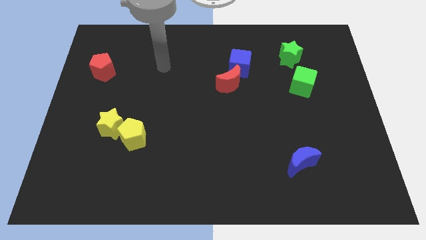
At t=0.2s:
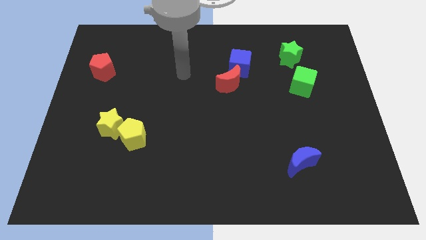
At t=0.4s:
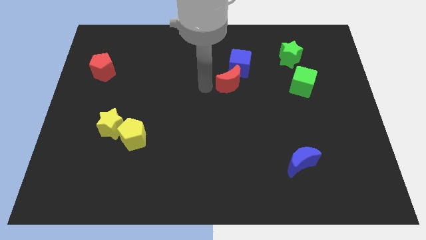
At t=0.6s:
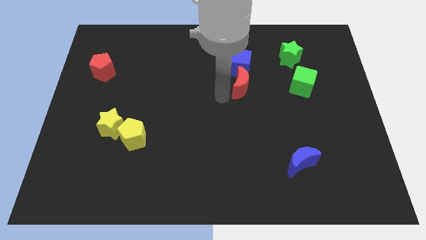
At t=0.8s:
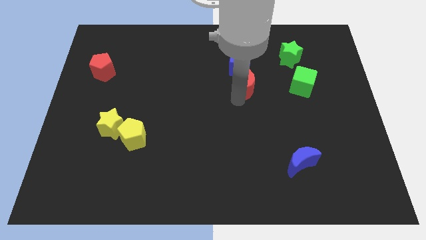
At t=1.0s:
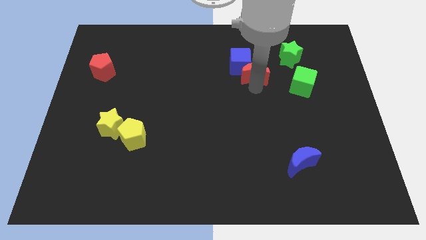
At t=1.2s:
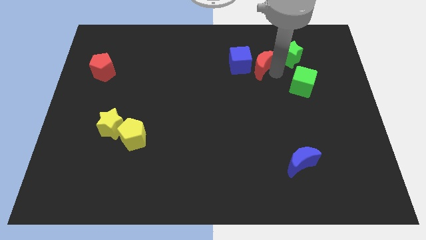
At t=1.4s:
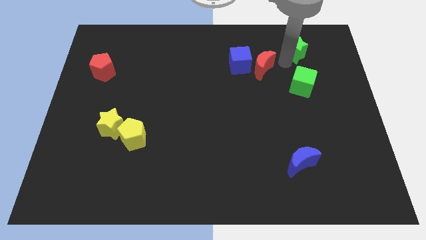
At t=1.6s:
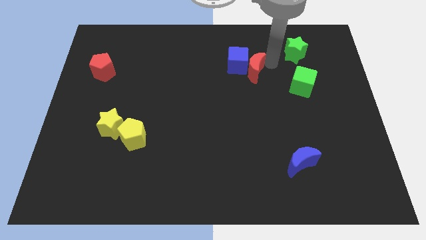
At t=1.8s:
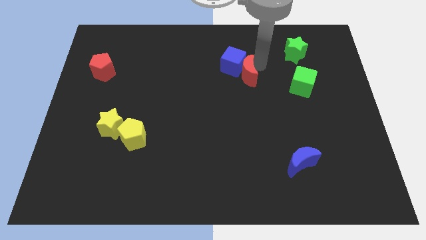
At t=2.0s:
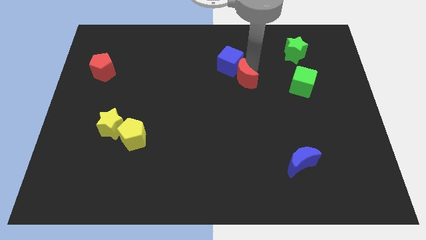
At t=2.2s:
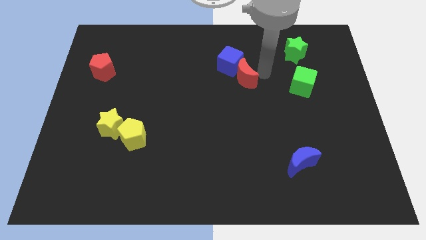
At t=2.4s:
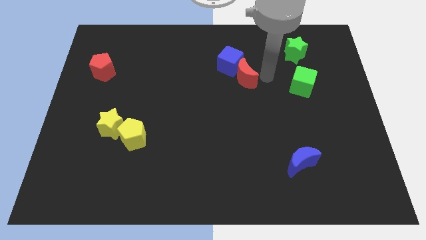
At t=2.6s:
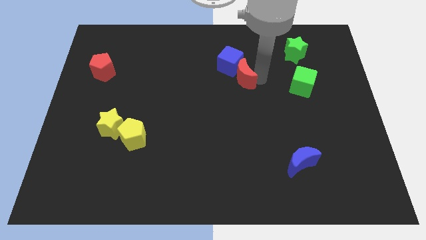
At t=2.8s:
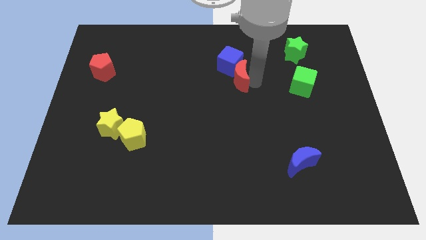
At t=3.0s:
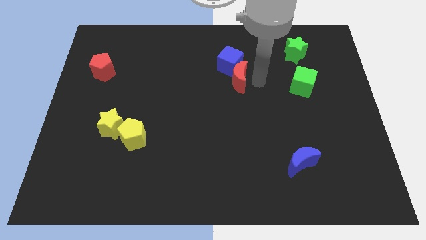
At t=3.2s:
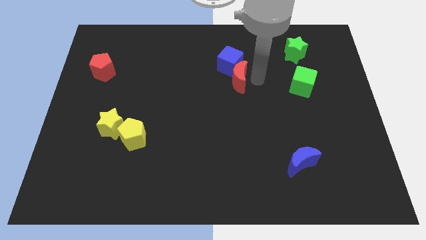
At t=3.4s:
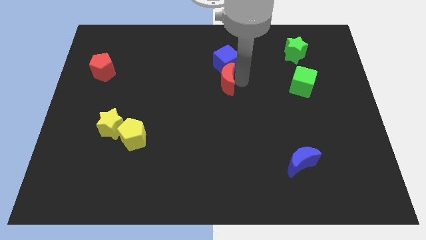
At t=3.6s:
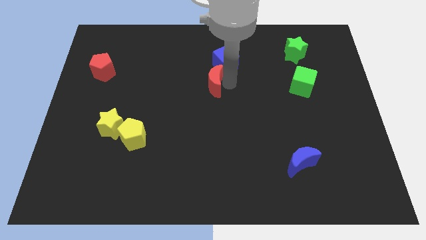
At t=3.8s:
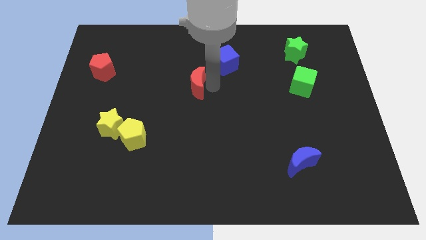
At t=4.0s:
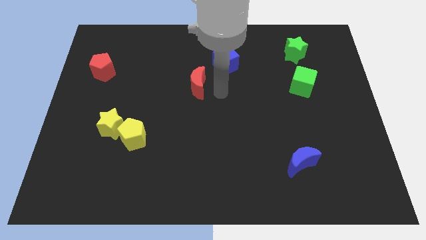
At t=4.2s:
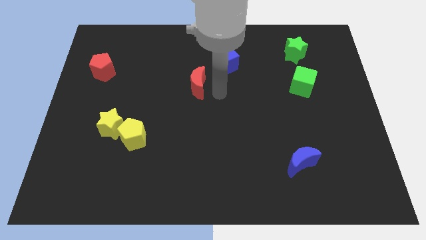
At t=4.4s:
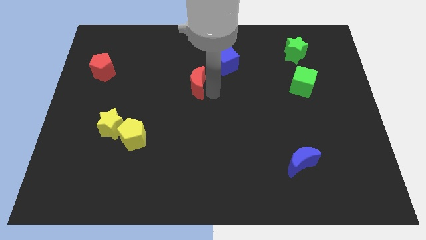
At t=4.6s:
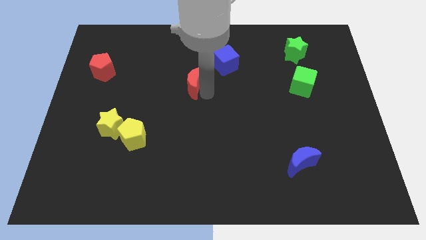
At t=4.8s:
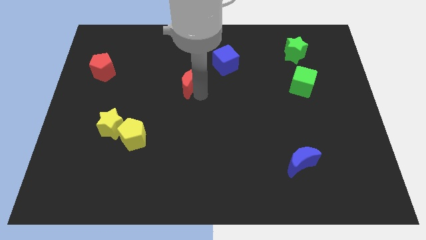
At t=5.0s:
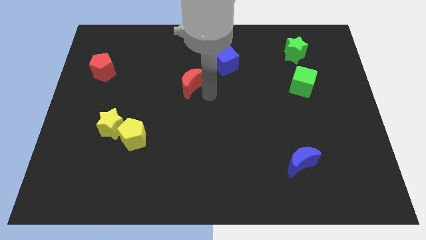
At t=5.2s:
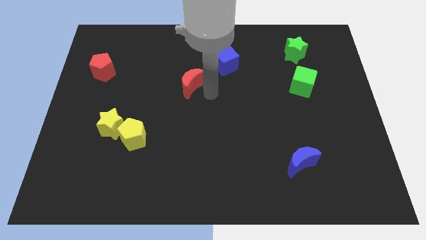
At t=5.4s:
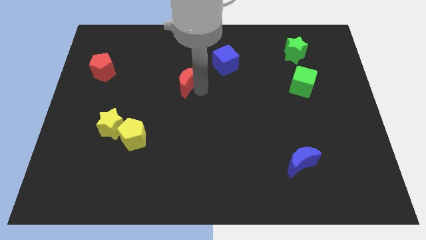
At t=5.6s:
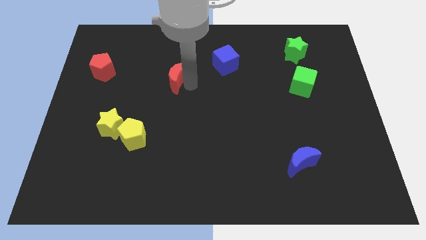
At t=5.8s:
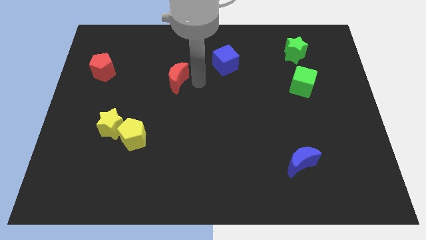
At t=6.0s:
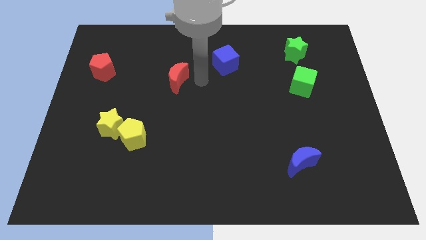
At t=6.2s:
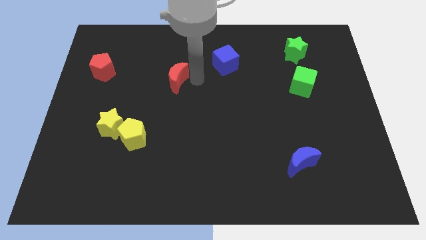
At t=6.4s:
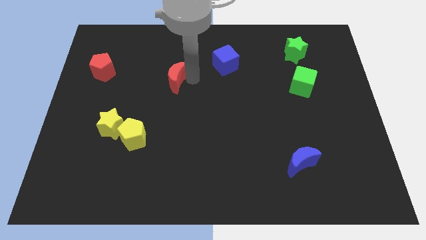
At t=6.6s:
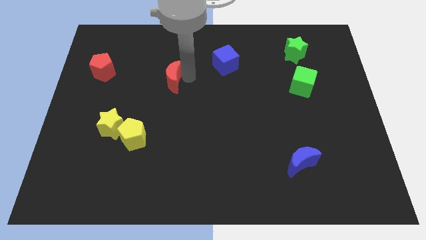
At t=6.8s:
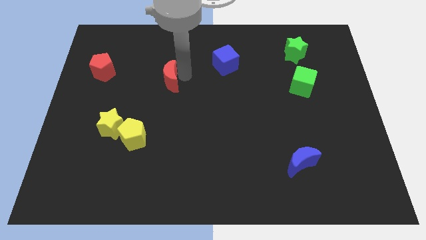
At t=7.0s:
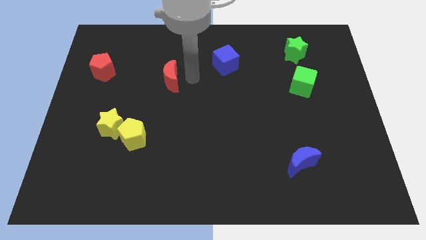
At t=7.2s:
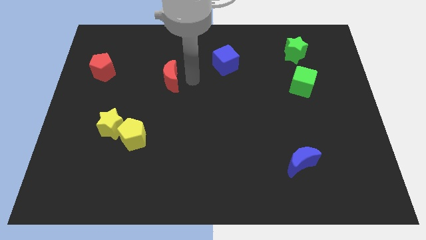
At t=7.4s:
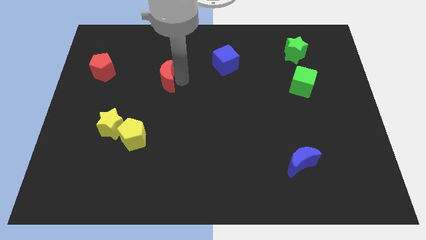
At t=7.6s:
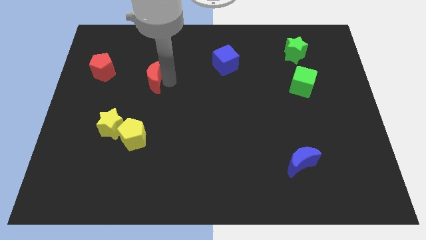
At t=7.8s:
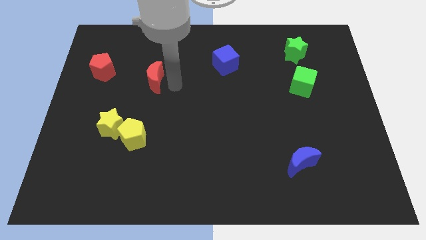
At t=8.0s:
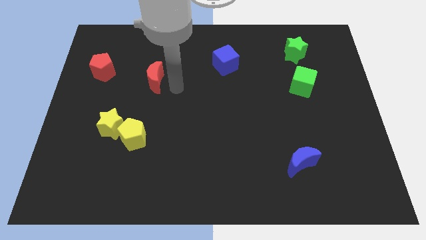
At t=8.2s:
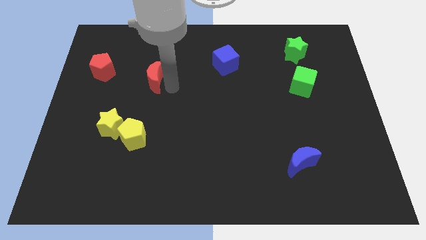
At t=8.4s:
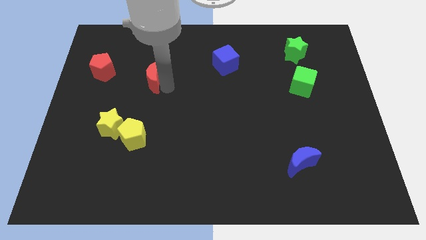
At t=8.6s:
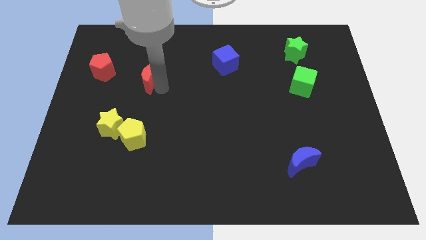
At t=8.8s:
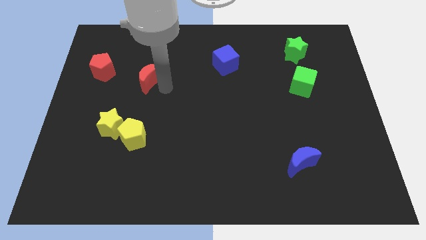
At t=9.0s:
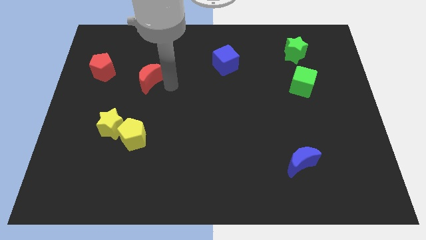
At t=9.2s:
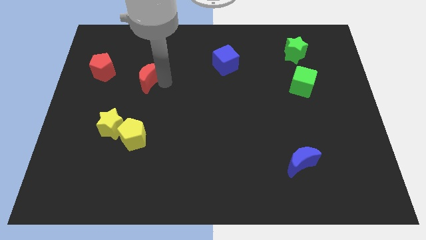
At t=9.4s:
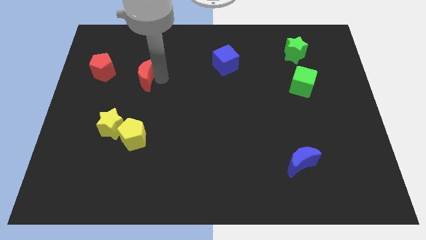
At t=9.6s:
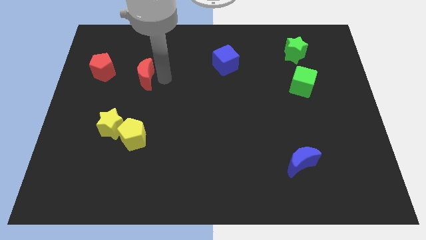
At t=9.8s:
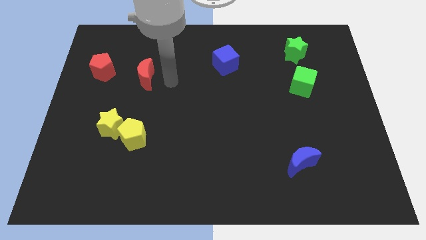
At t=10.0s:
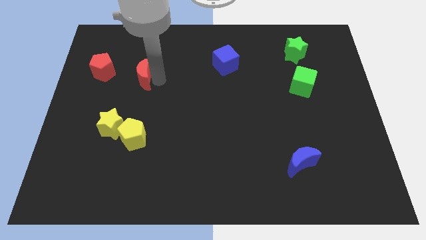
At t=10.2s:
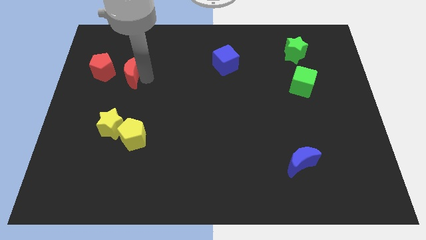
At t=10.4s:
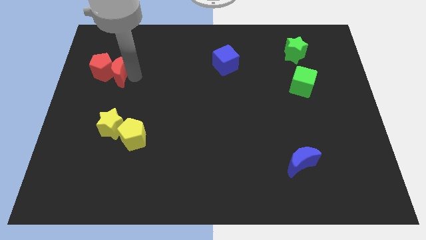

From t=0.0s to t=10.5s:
move the red moon towards the red pentagon

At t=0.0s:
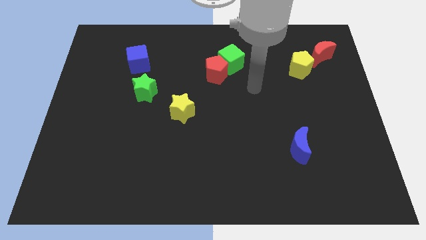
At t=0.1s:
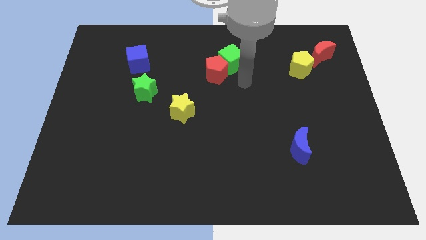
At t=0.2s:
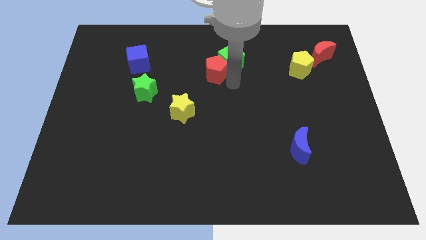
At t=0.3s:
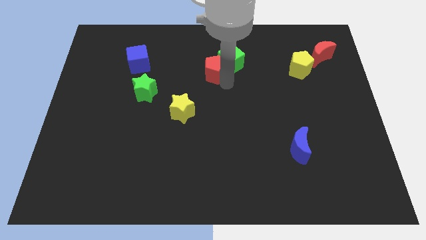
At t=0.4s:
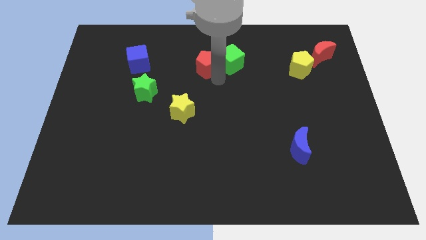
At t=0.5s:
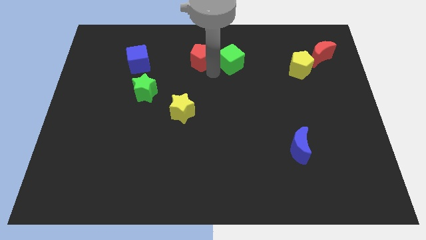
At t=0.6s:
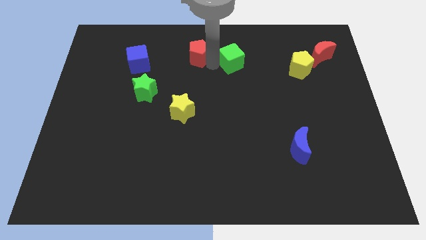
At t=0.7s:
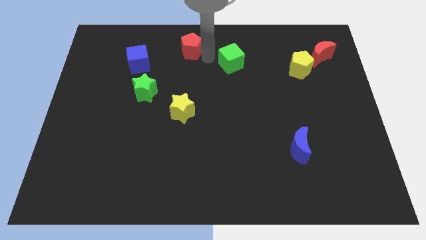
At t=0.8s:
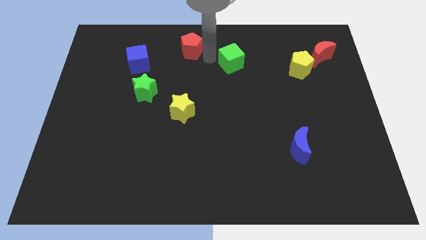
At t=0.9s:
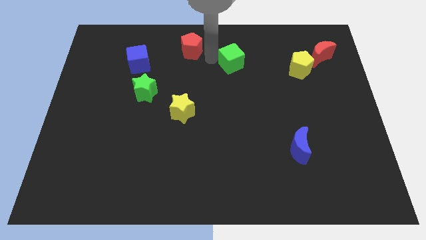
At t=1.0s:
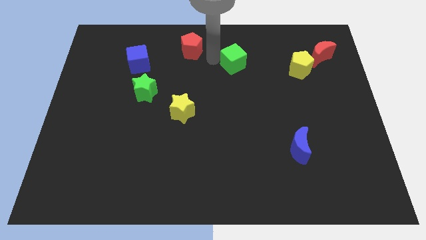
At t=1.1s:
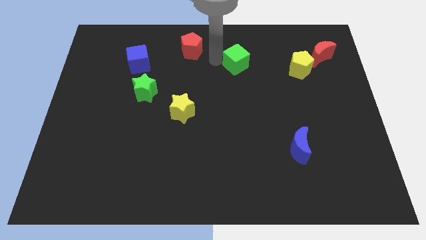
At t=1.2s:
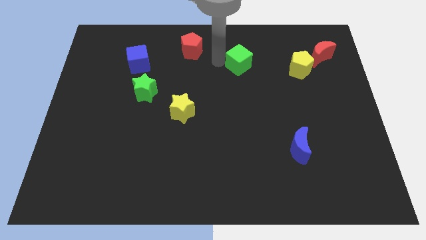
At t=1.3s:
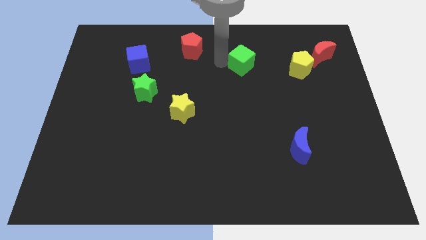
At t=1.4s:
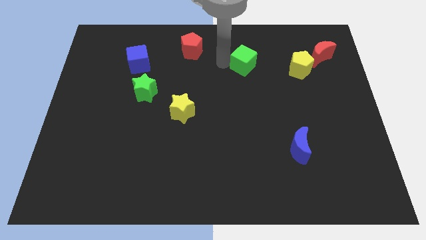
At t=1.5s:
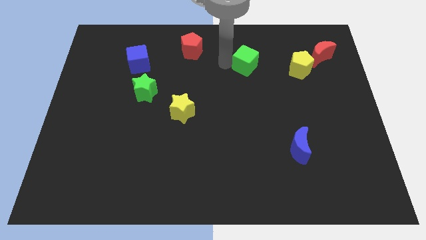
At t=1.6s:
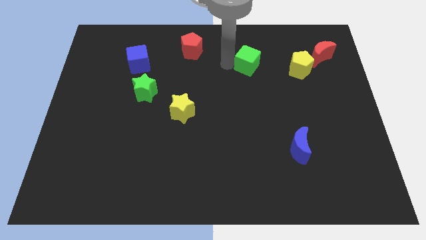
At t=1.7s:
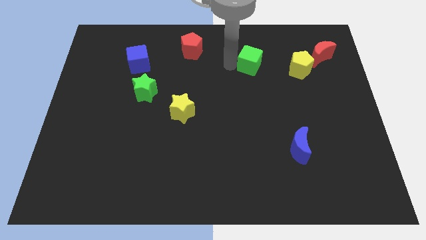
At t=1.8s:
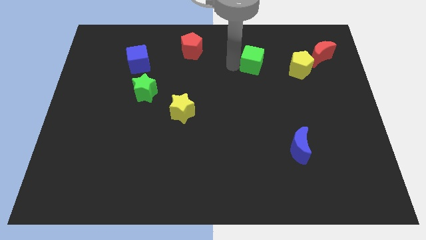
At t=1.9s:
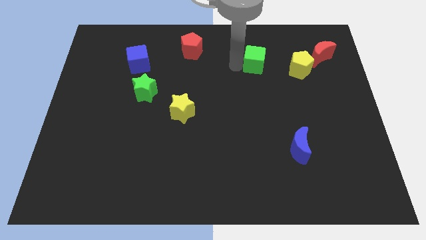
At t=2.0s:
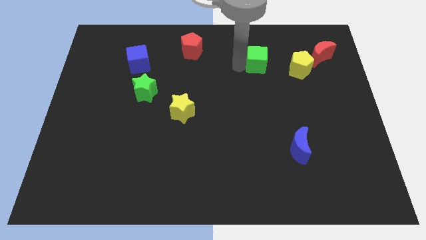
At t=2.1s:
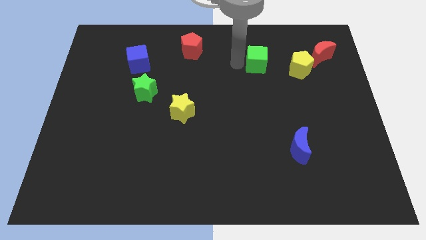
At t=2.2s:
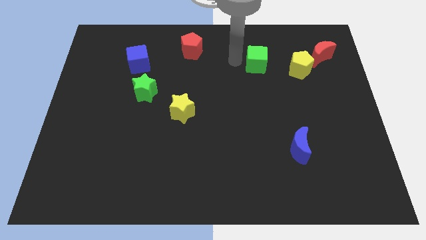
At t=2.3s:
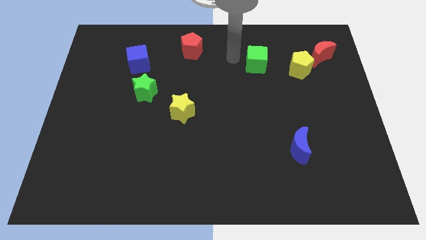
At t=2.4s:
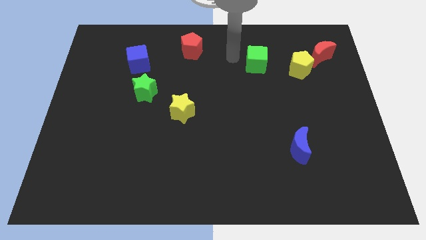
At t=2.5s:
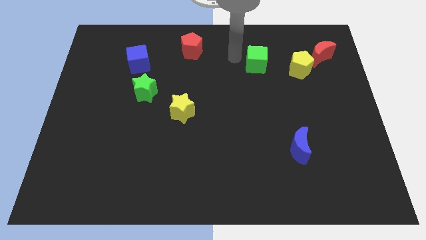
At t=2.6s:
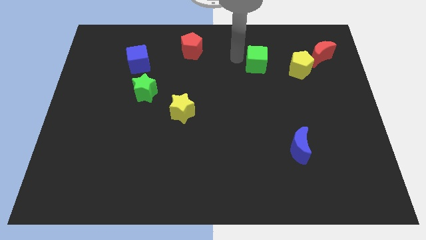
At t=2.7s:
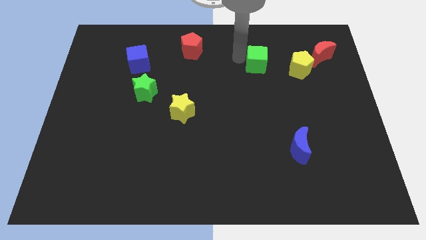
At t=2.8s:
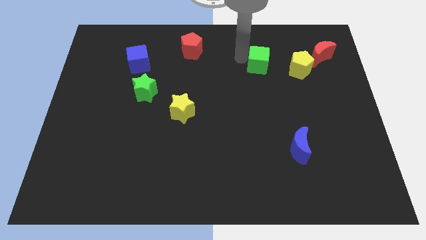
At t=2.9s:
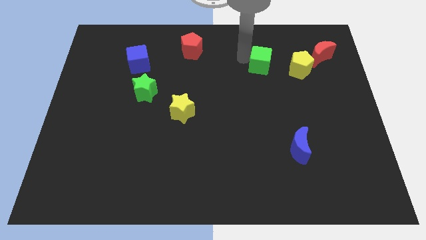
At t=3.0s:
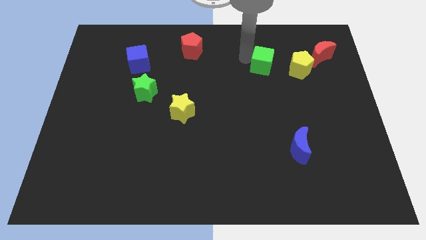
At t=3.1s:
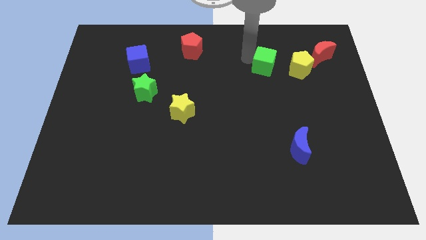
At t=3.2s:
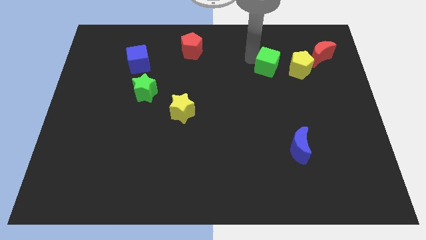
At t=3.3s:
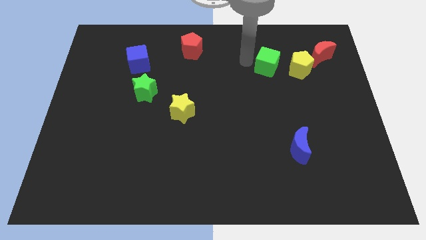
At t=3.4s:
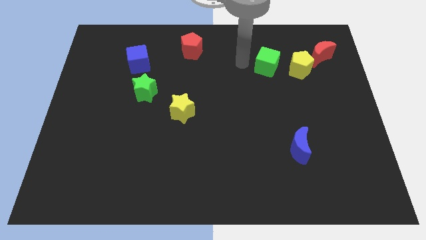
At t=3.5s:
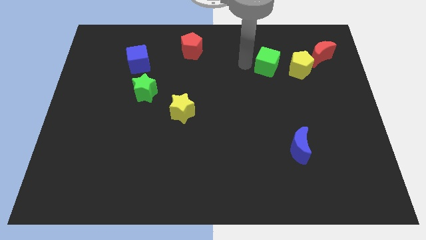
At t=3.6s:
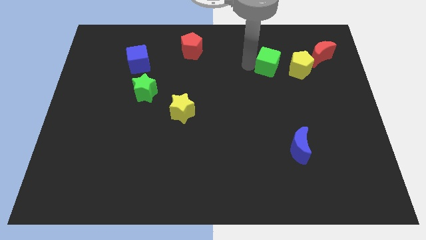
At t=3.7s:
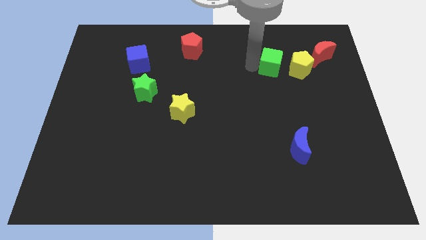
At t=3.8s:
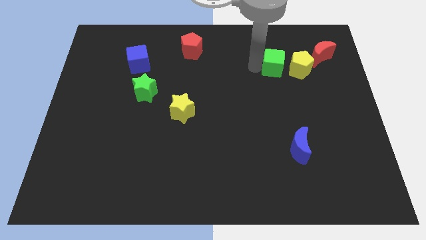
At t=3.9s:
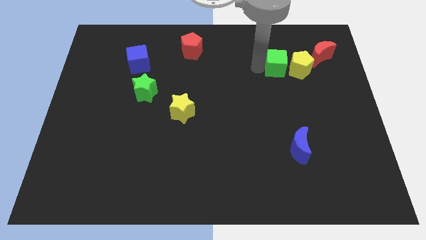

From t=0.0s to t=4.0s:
put the green cube to the yellow pentagon
